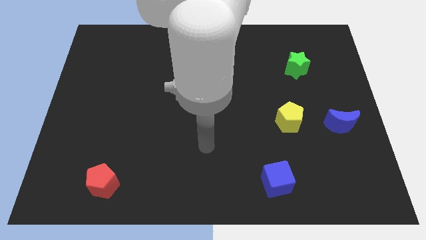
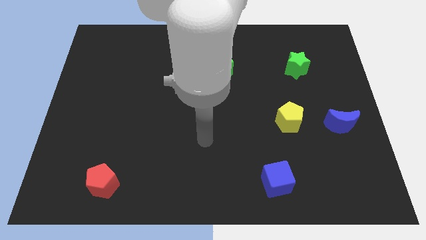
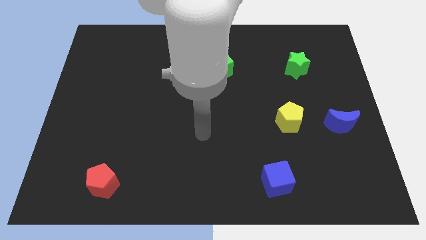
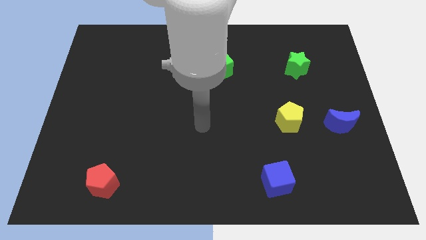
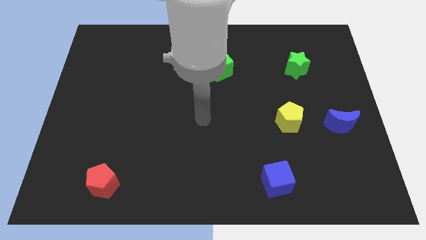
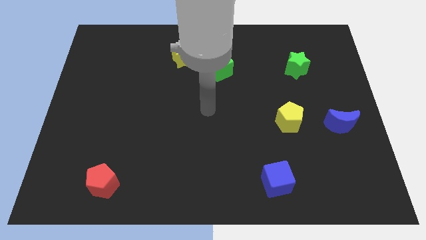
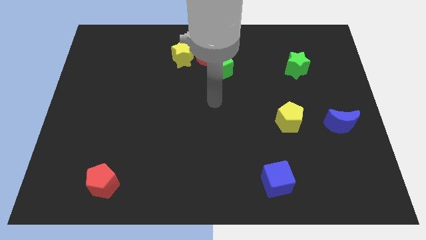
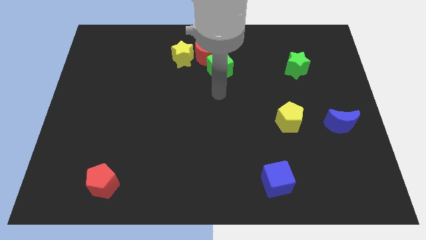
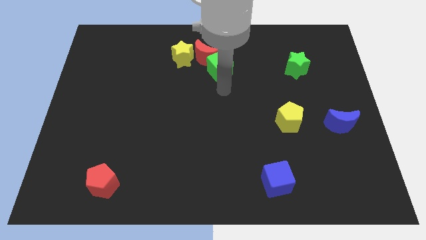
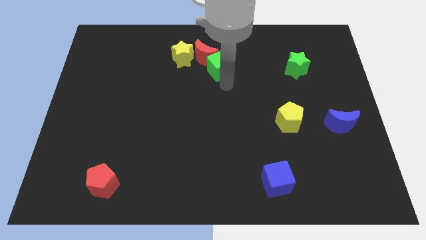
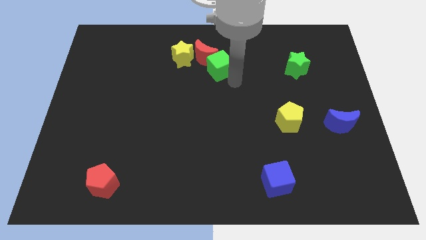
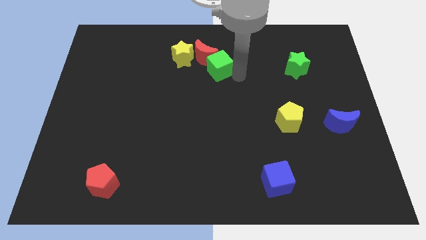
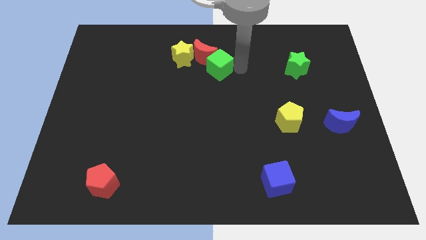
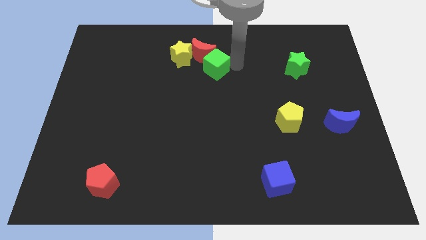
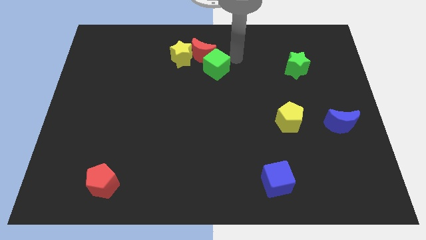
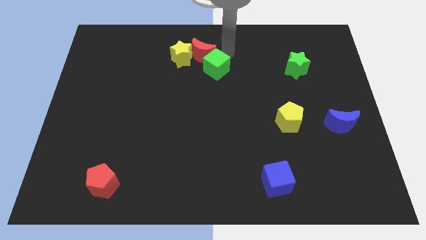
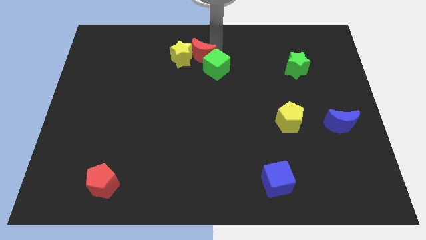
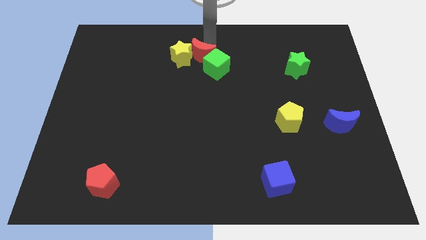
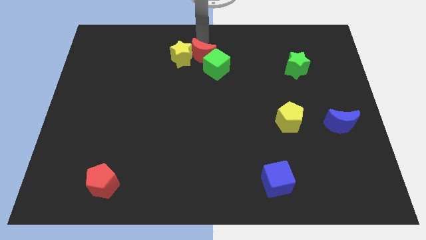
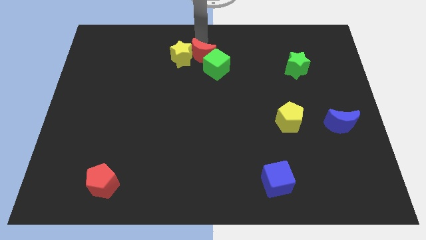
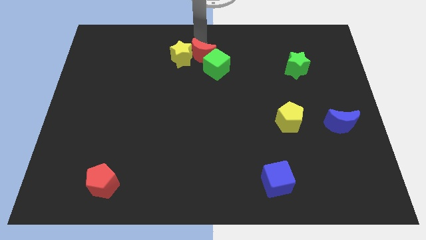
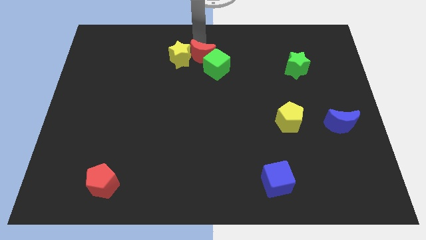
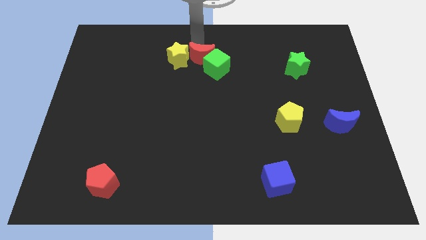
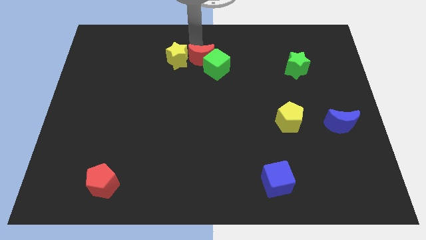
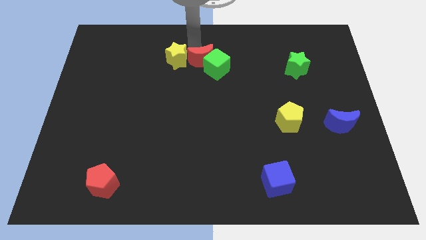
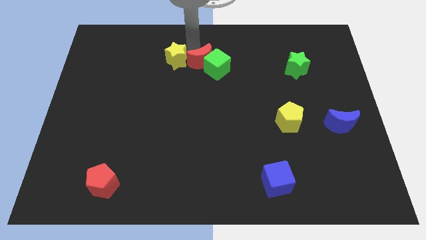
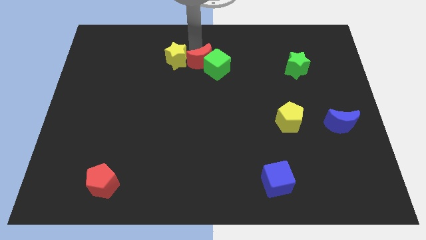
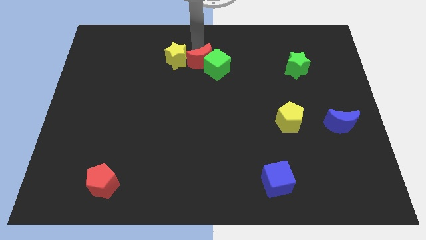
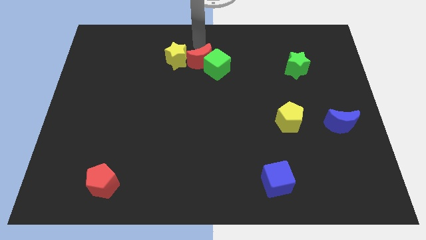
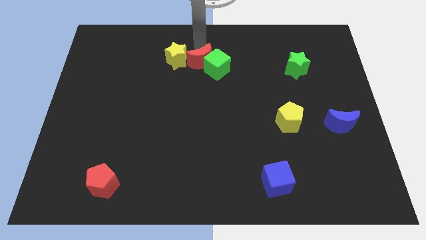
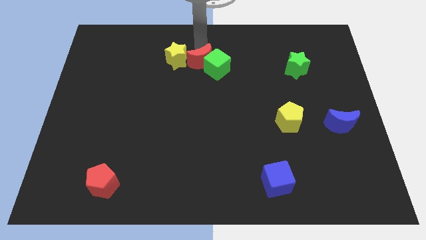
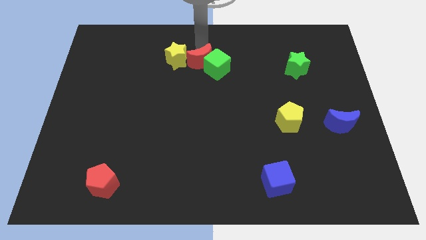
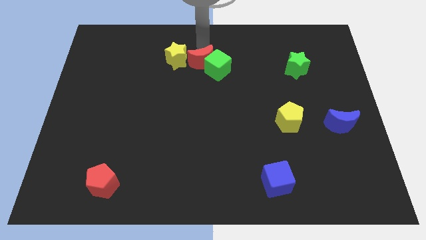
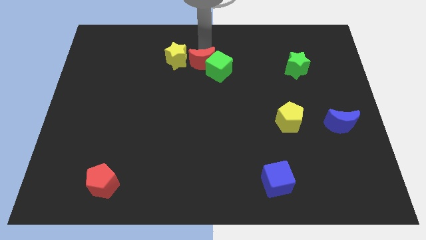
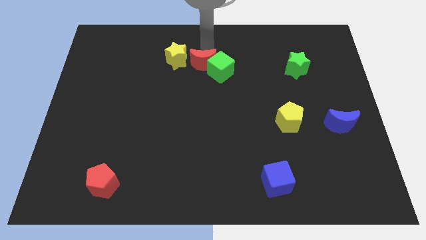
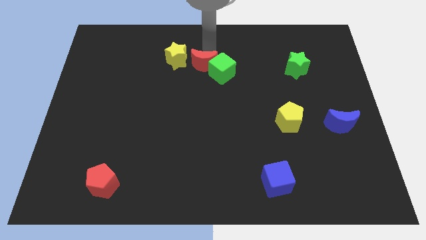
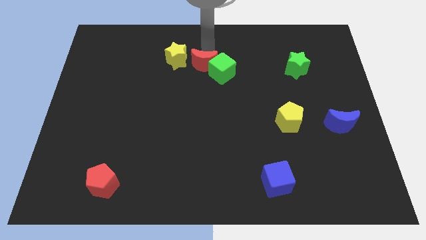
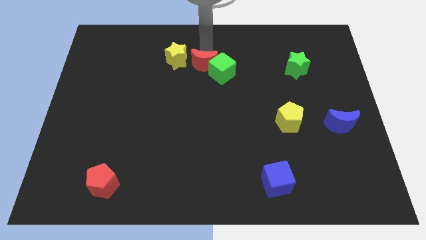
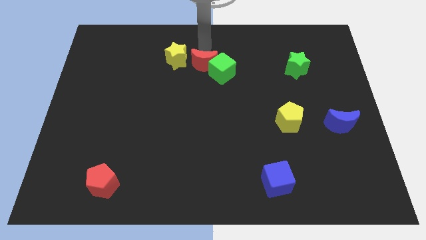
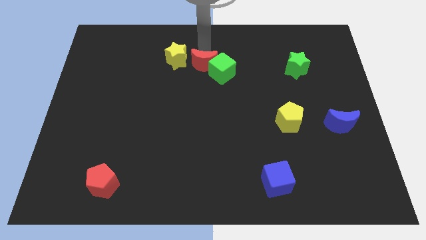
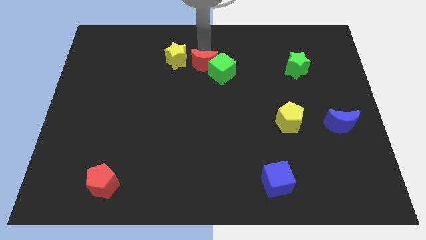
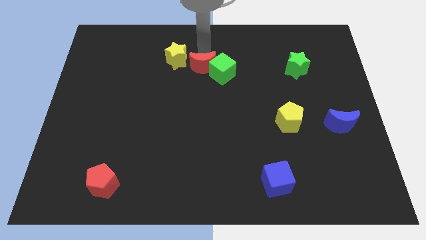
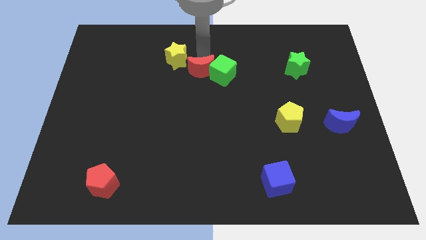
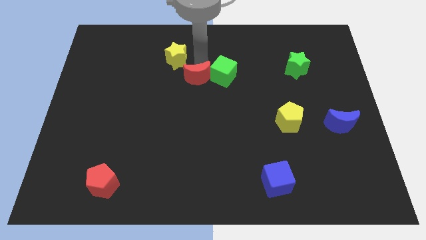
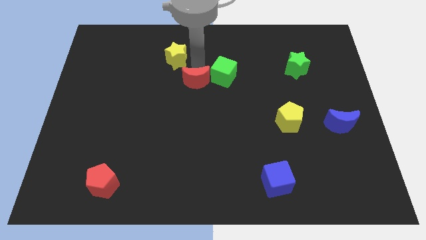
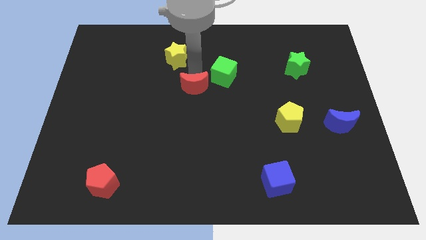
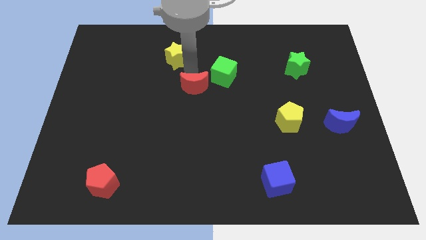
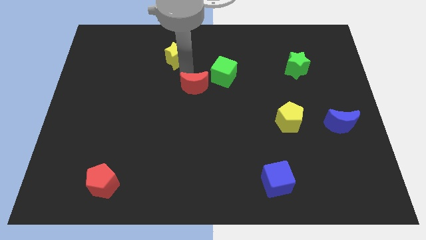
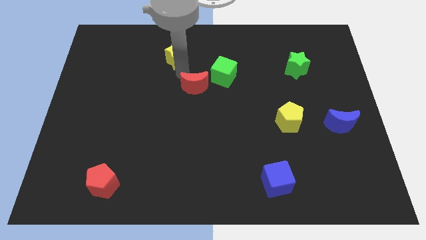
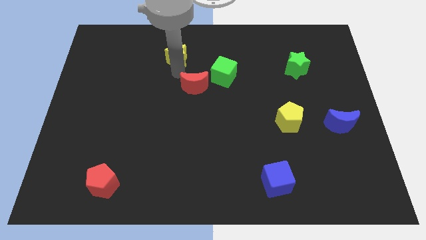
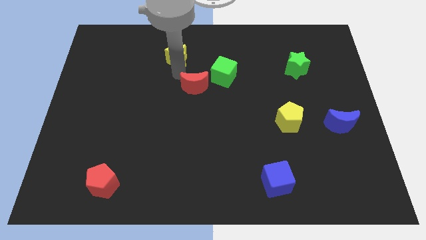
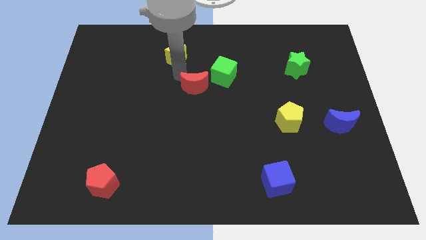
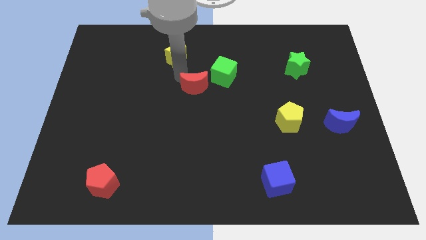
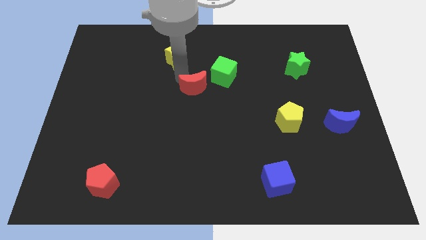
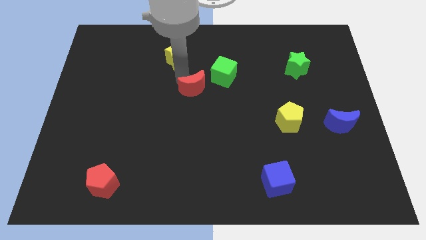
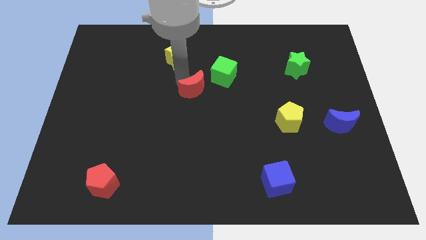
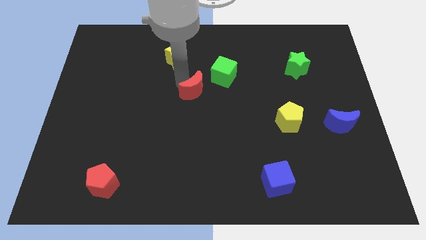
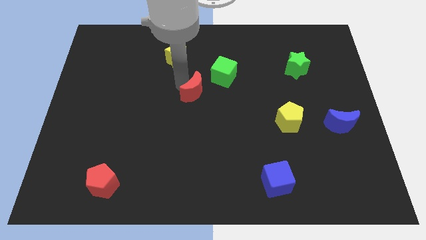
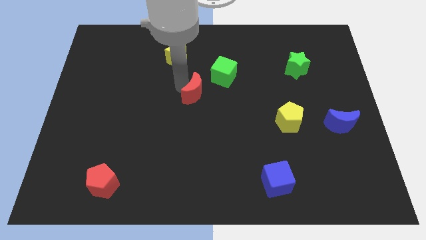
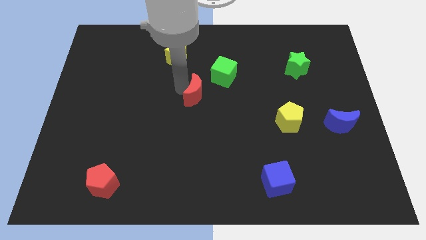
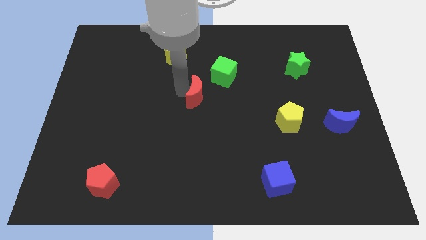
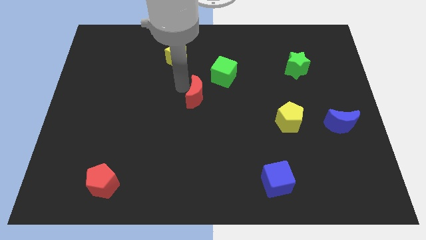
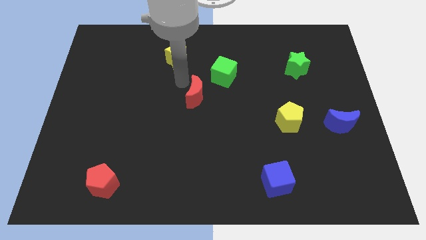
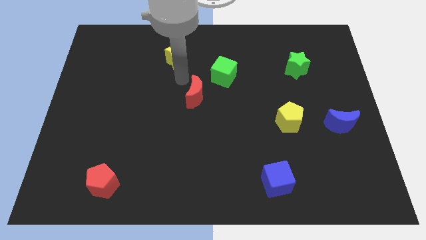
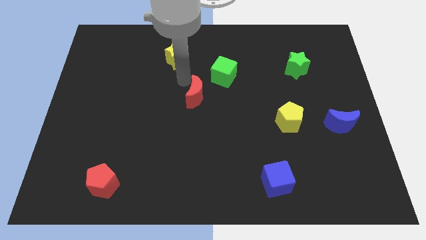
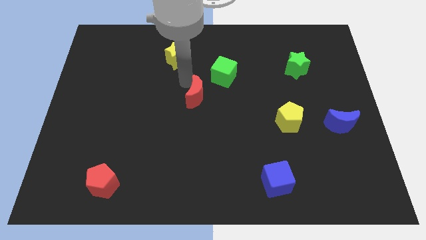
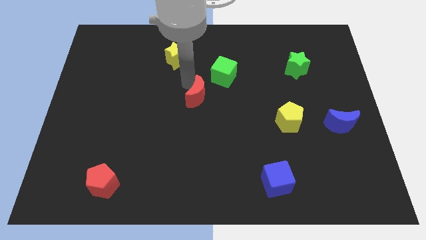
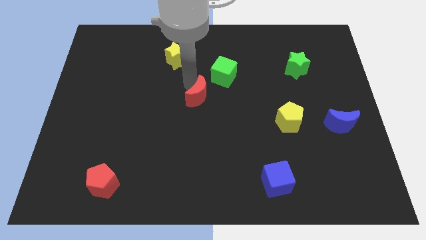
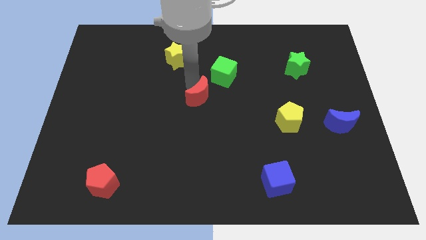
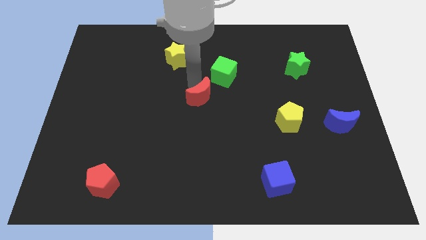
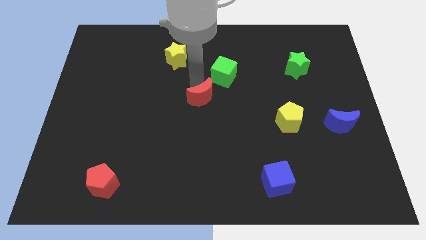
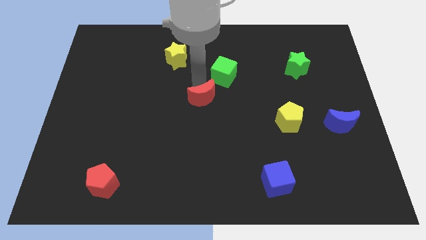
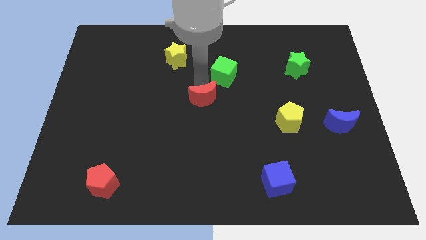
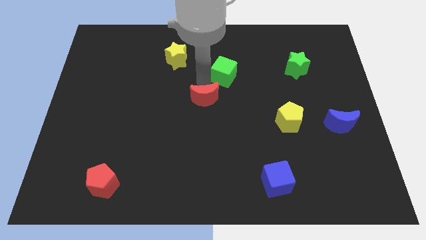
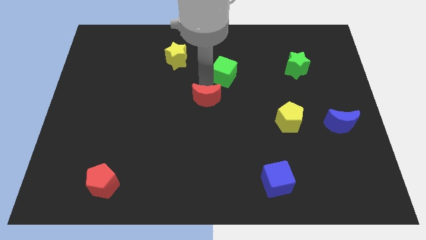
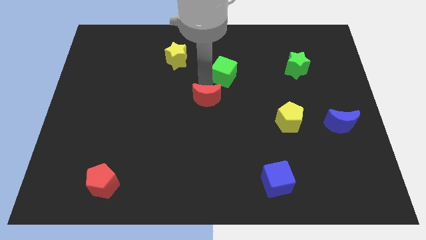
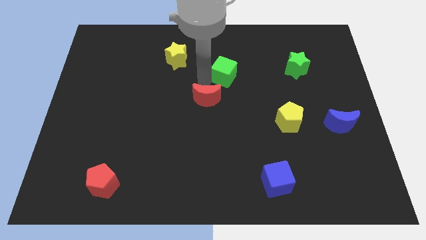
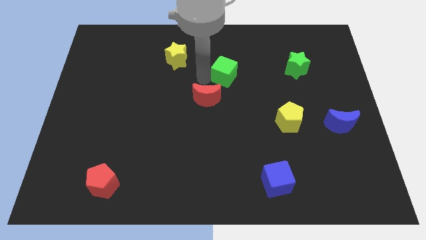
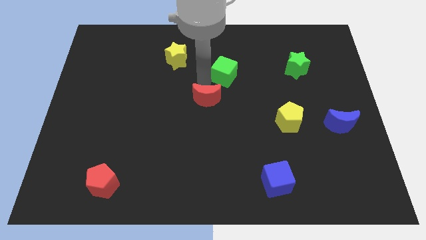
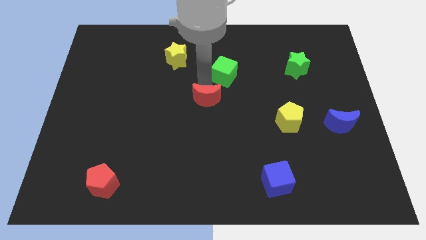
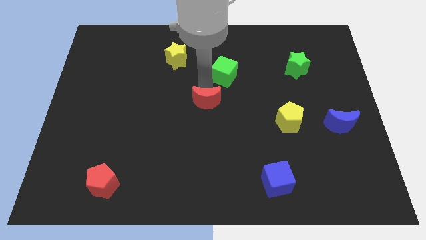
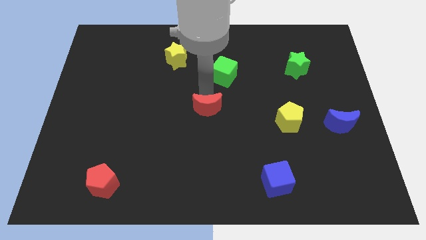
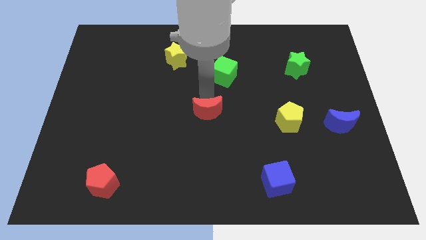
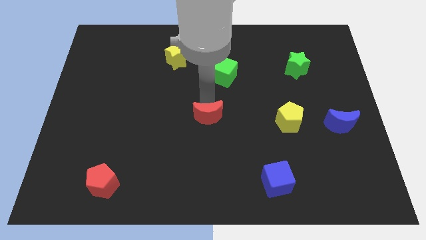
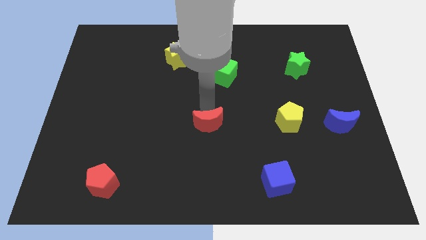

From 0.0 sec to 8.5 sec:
move the red moon downwards
